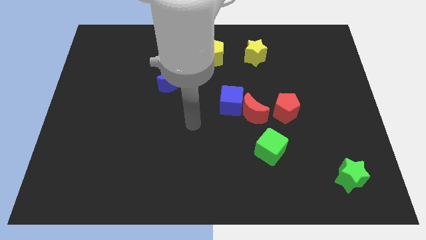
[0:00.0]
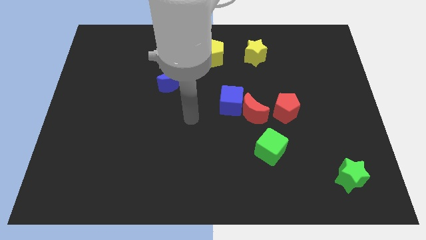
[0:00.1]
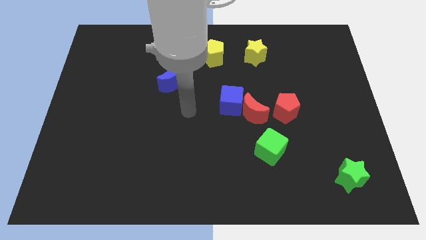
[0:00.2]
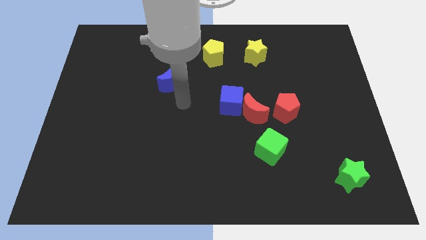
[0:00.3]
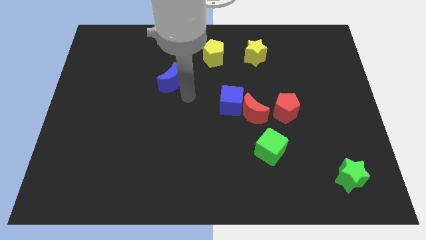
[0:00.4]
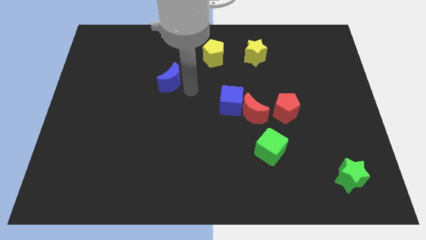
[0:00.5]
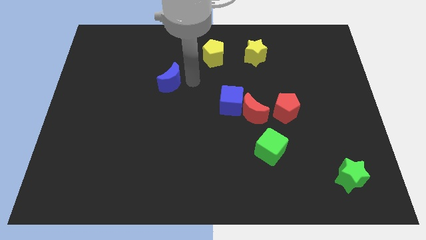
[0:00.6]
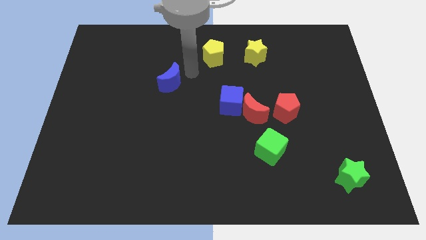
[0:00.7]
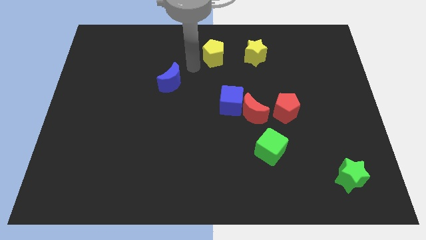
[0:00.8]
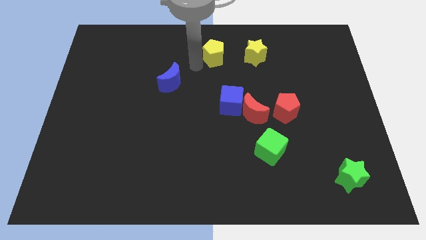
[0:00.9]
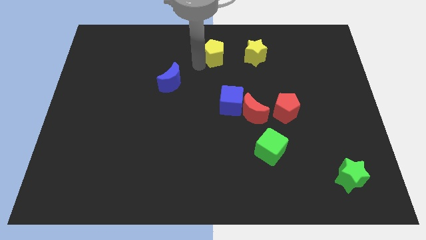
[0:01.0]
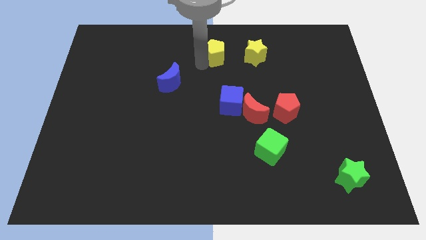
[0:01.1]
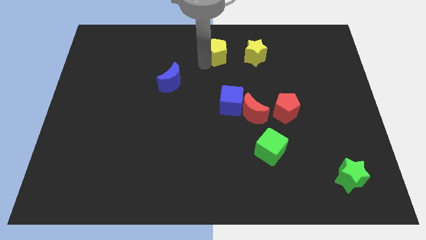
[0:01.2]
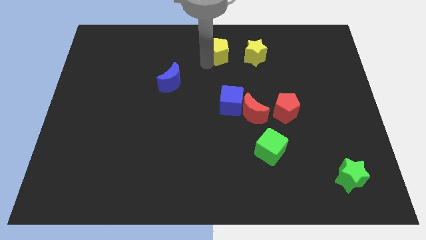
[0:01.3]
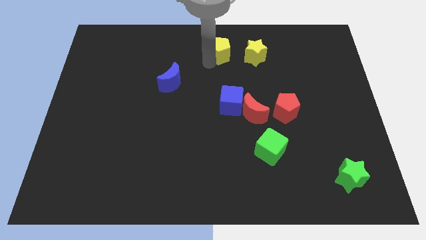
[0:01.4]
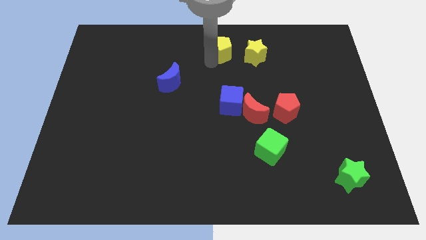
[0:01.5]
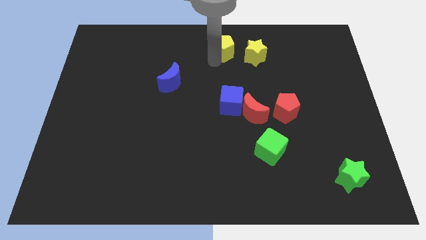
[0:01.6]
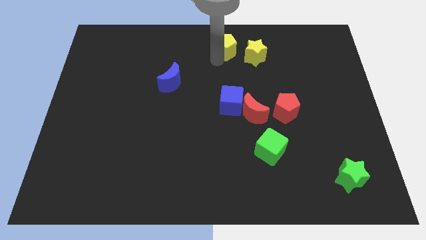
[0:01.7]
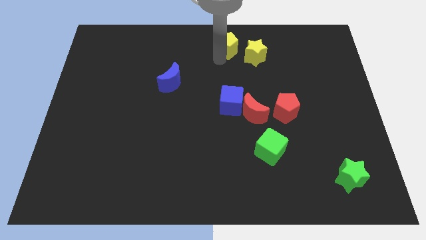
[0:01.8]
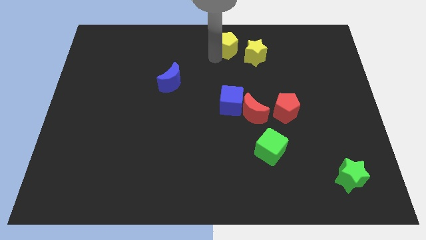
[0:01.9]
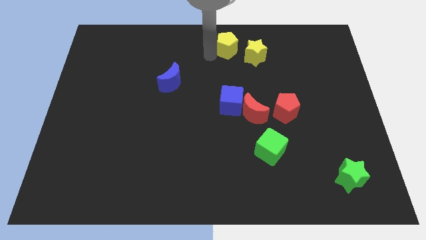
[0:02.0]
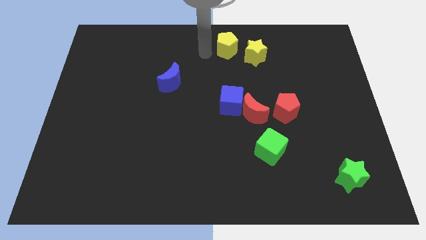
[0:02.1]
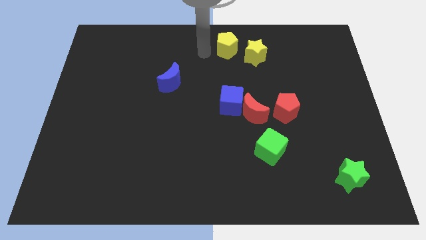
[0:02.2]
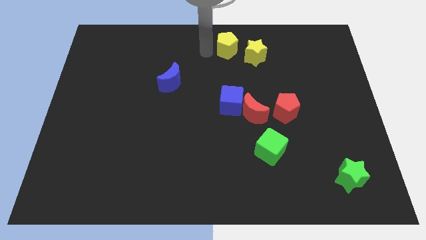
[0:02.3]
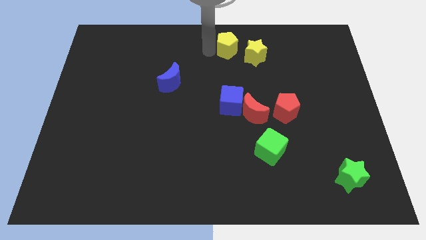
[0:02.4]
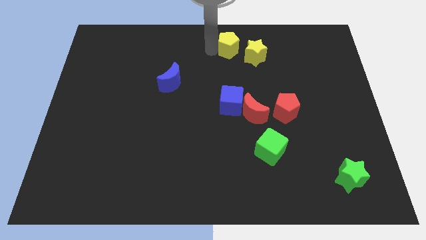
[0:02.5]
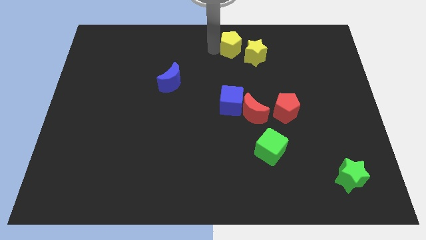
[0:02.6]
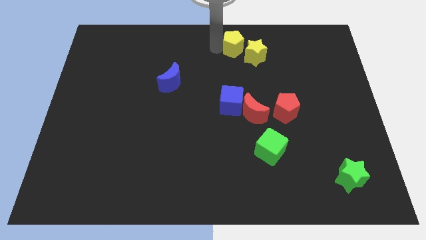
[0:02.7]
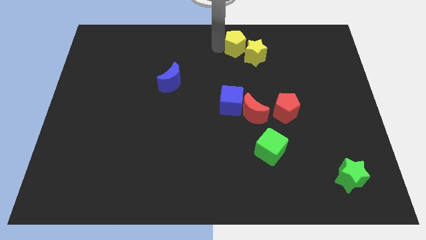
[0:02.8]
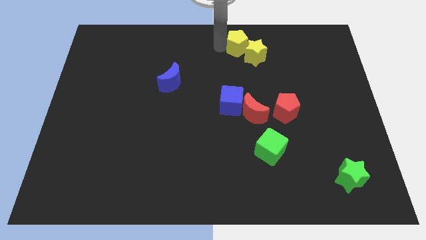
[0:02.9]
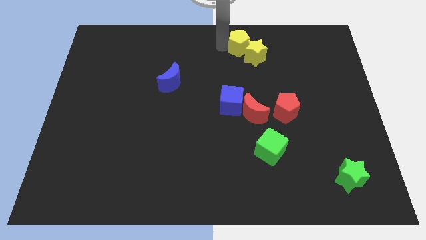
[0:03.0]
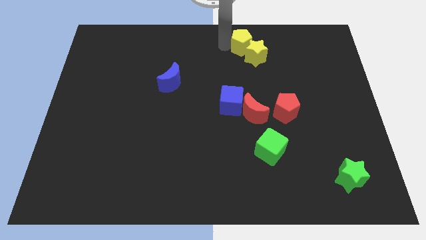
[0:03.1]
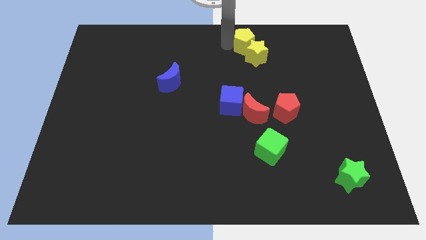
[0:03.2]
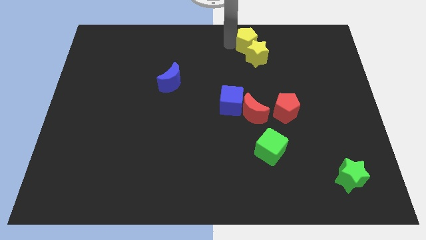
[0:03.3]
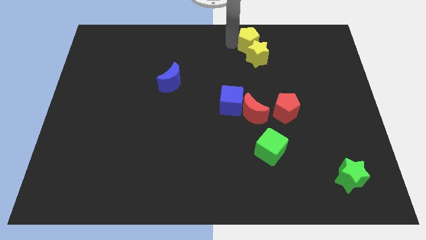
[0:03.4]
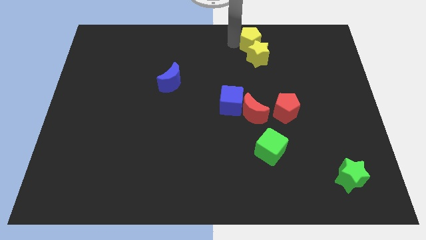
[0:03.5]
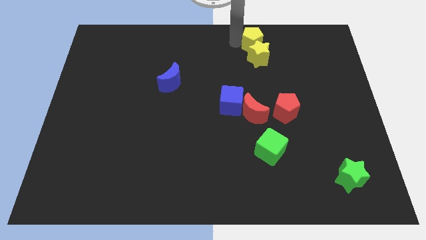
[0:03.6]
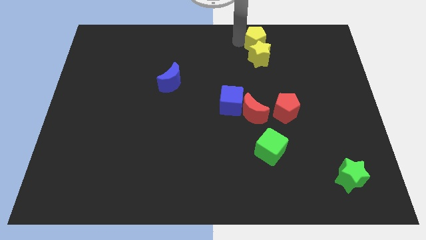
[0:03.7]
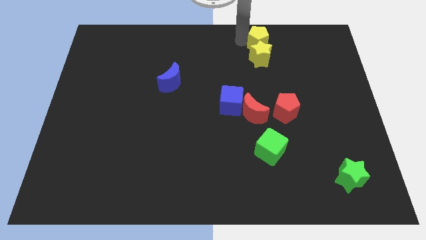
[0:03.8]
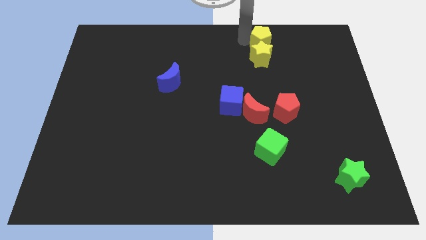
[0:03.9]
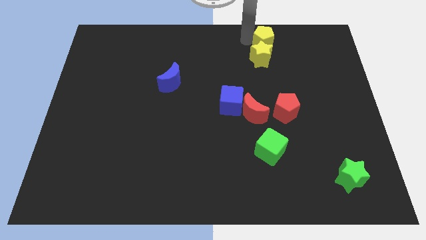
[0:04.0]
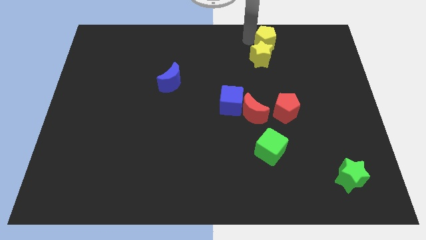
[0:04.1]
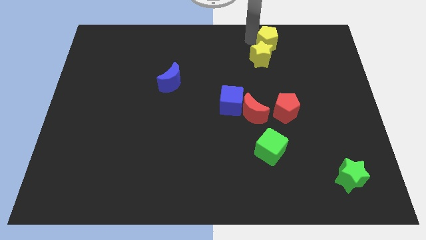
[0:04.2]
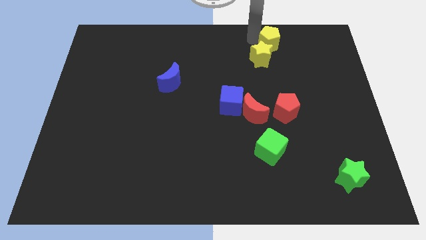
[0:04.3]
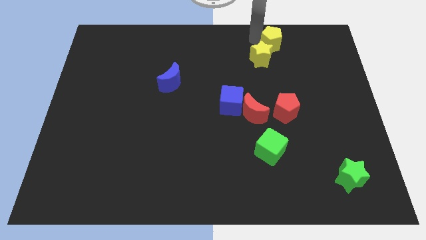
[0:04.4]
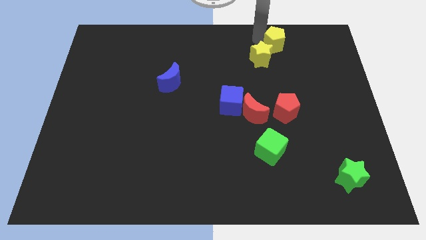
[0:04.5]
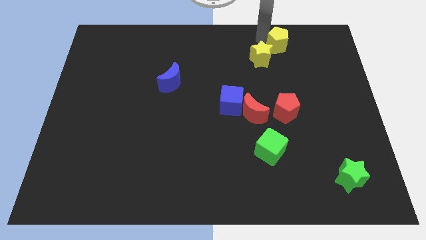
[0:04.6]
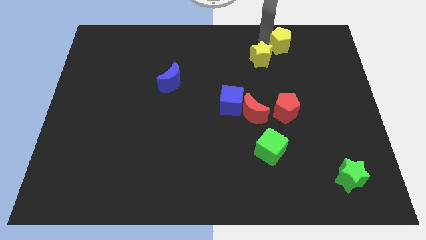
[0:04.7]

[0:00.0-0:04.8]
slide the yellow pentagon right of the yellow star

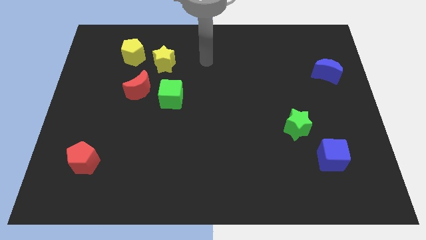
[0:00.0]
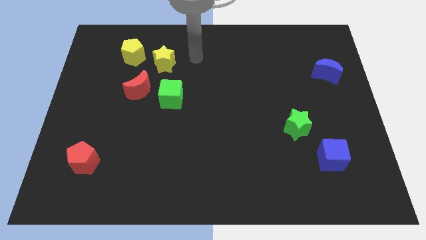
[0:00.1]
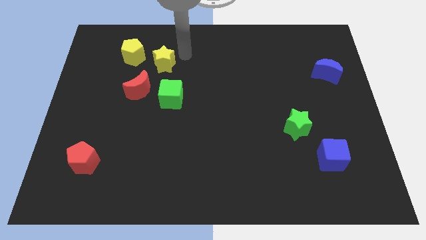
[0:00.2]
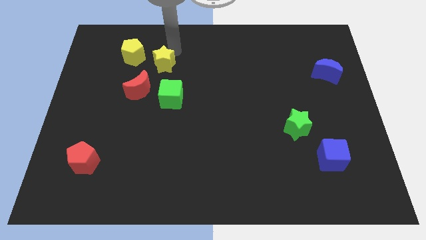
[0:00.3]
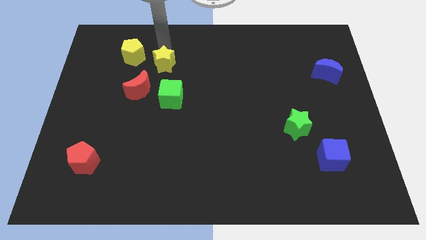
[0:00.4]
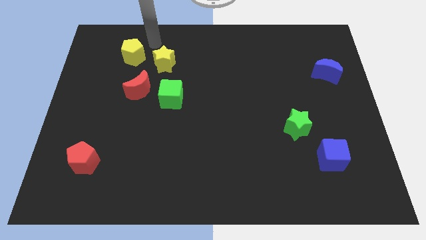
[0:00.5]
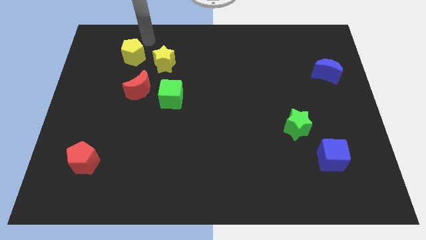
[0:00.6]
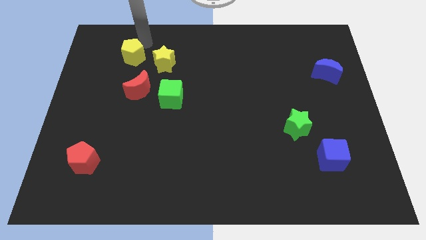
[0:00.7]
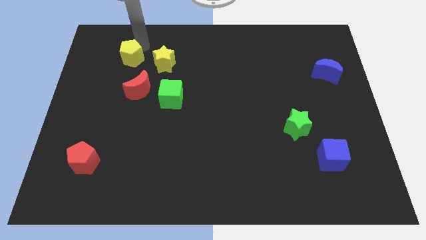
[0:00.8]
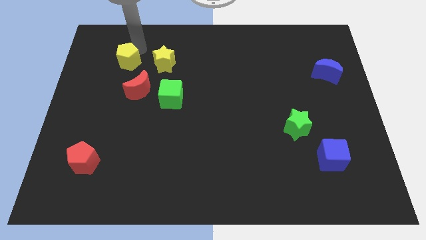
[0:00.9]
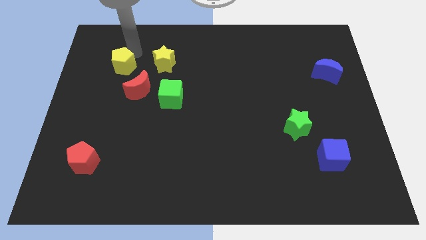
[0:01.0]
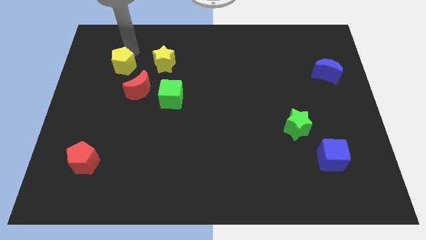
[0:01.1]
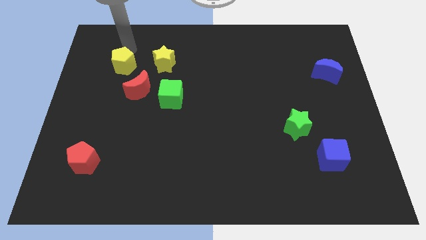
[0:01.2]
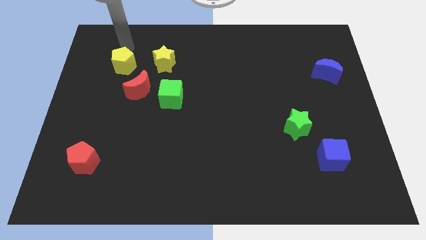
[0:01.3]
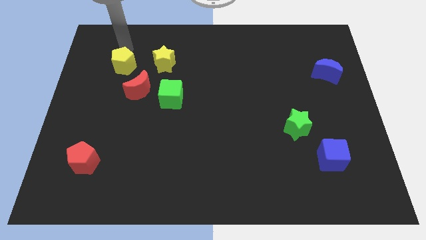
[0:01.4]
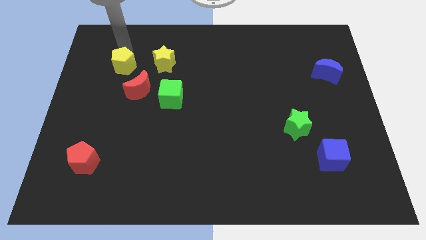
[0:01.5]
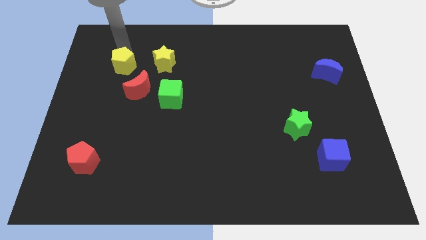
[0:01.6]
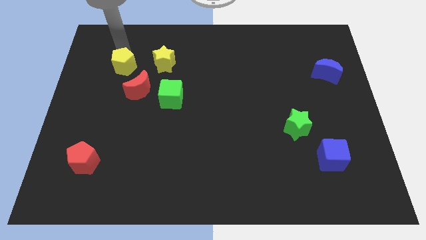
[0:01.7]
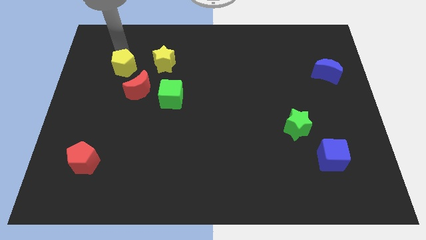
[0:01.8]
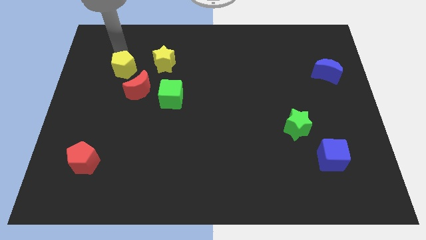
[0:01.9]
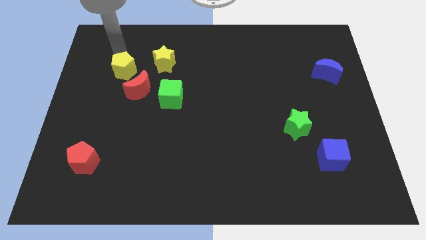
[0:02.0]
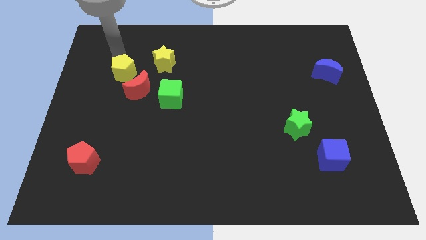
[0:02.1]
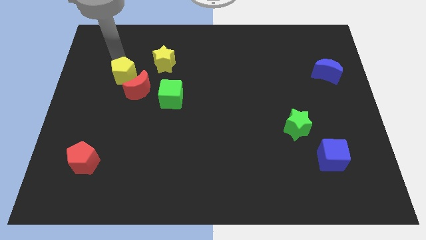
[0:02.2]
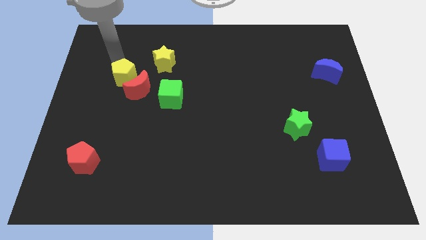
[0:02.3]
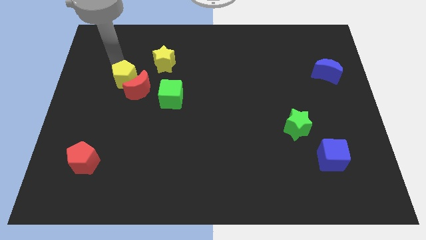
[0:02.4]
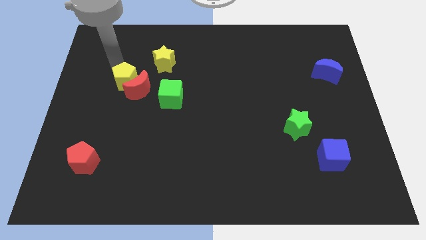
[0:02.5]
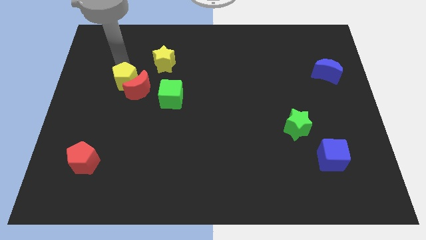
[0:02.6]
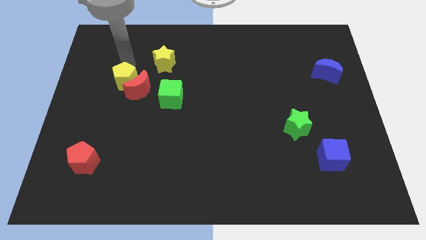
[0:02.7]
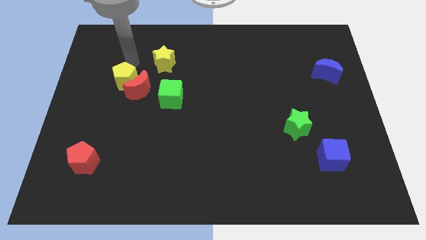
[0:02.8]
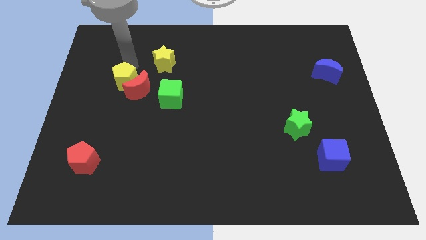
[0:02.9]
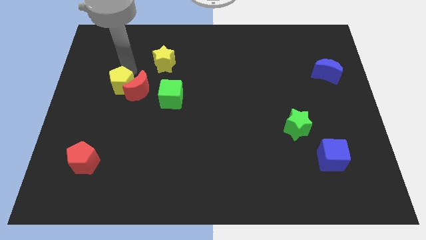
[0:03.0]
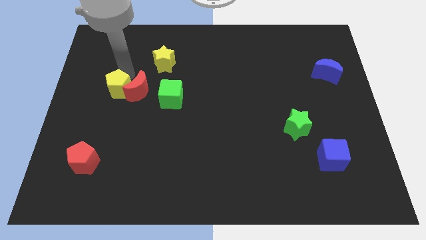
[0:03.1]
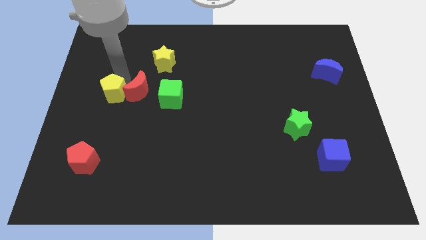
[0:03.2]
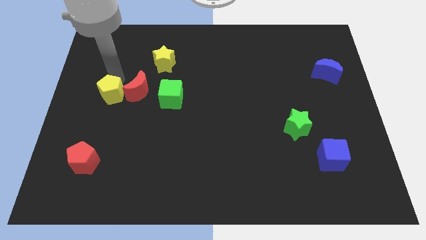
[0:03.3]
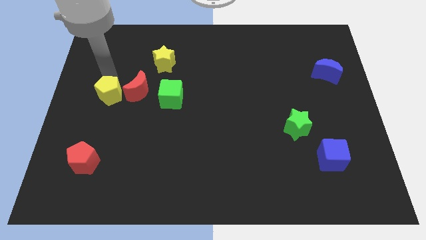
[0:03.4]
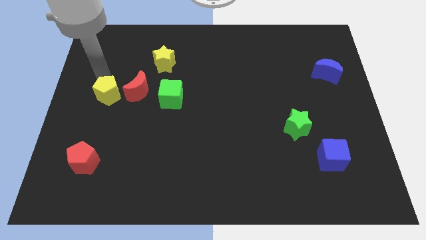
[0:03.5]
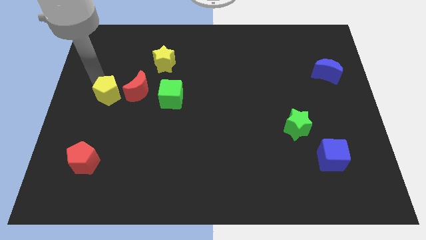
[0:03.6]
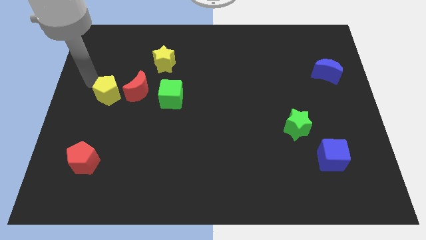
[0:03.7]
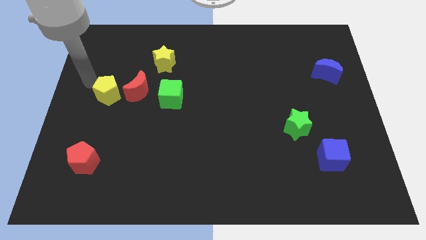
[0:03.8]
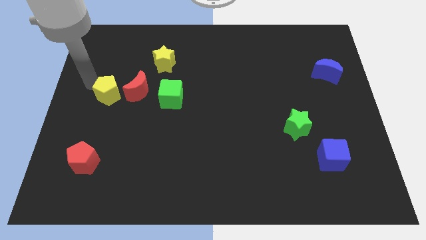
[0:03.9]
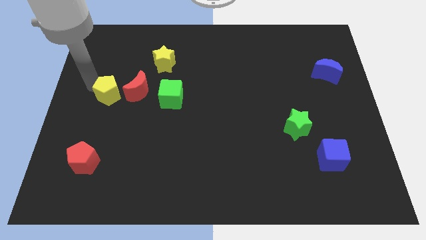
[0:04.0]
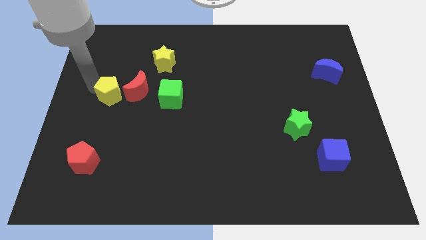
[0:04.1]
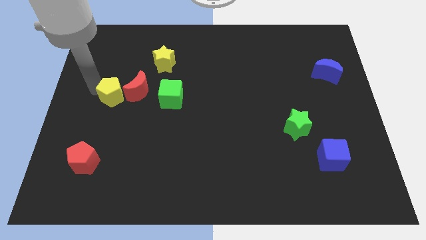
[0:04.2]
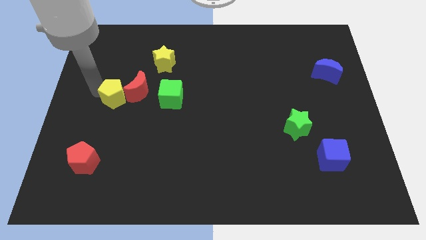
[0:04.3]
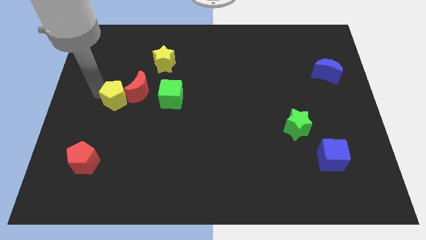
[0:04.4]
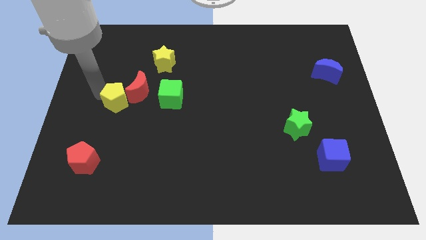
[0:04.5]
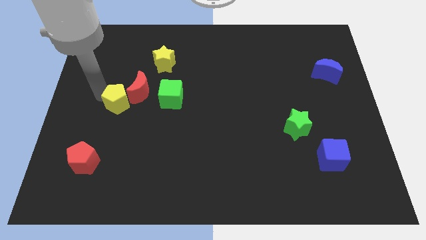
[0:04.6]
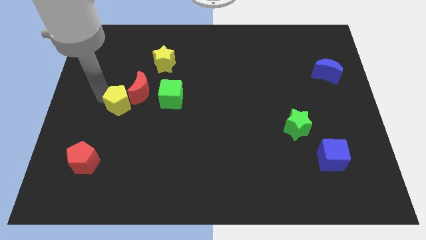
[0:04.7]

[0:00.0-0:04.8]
push the yellow pentagon to the bottom side of the red moon
